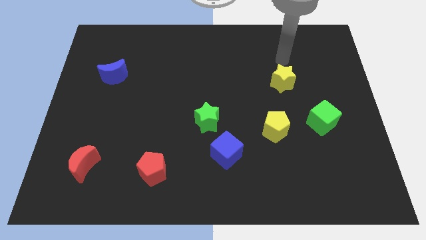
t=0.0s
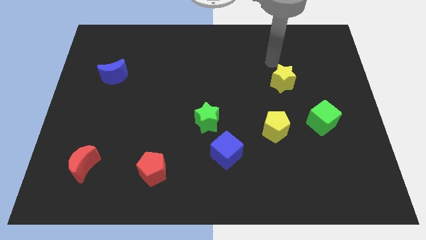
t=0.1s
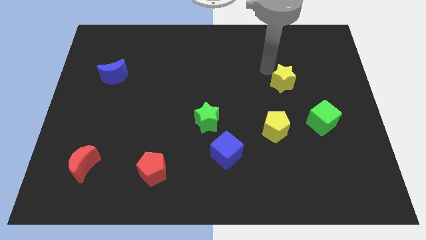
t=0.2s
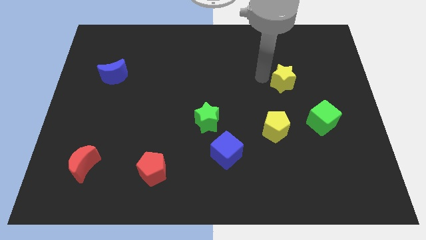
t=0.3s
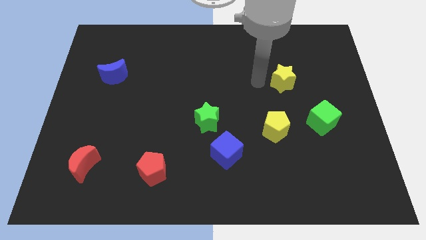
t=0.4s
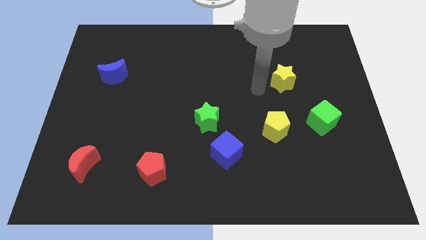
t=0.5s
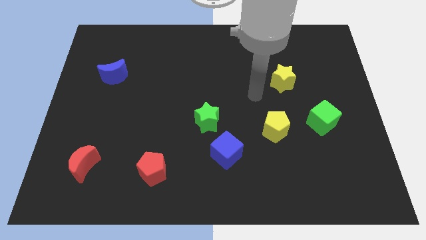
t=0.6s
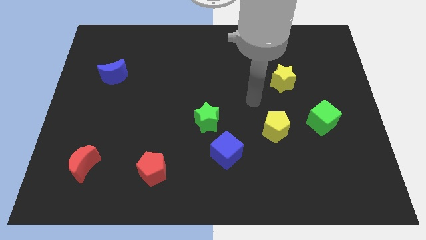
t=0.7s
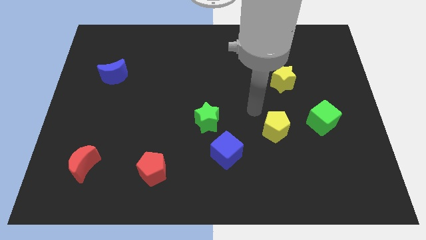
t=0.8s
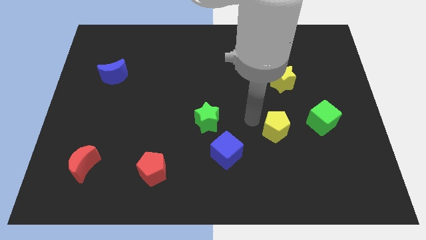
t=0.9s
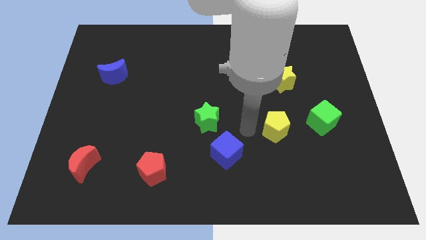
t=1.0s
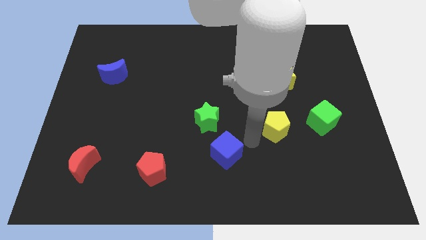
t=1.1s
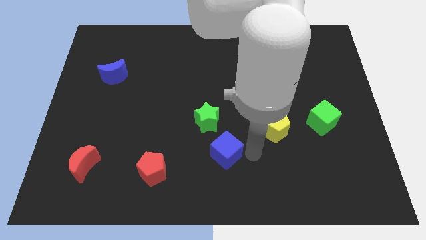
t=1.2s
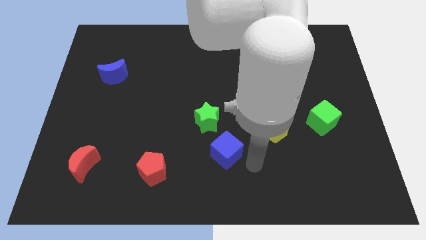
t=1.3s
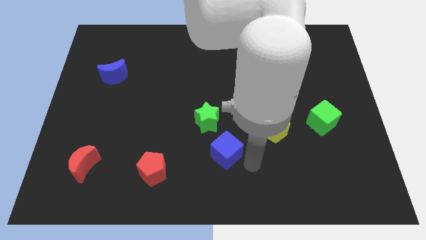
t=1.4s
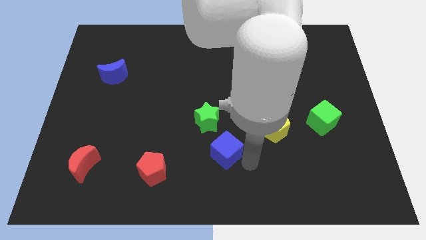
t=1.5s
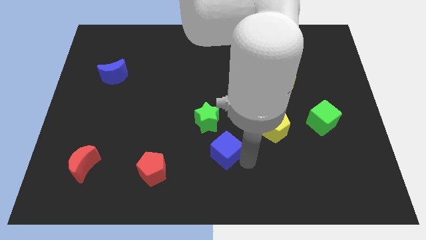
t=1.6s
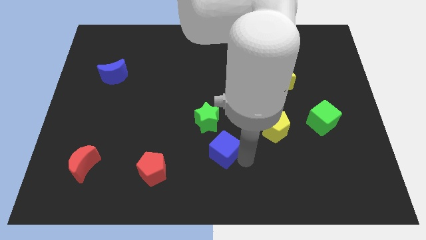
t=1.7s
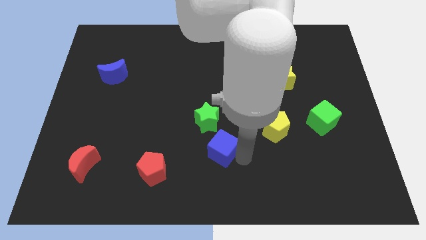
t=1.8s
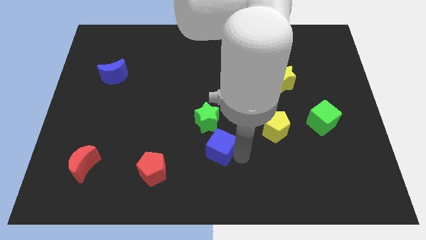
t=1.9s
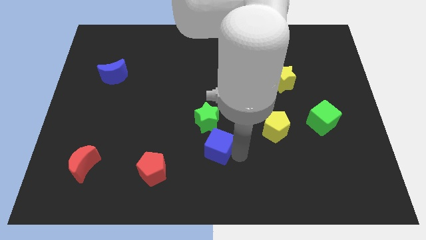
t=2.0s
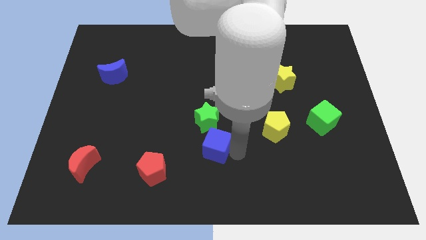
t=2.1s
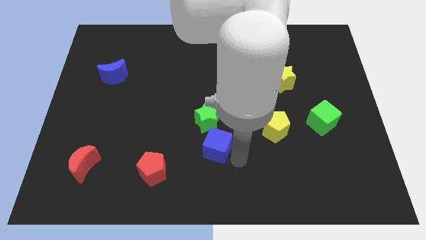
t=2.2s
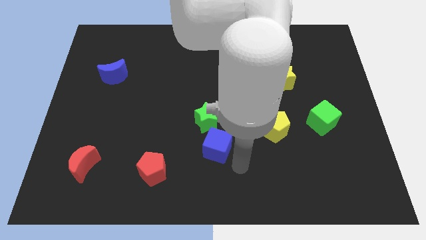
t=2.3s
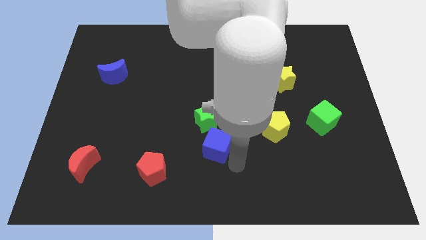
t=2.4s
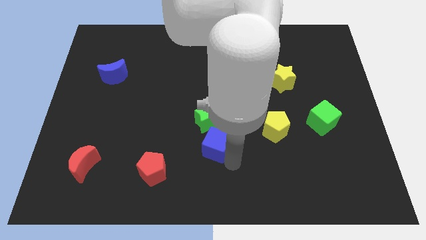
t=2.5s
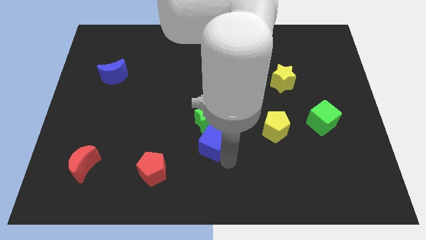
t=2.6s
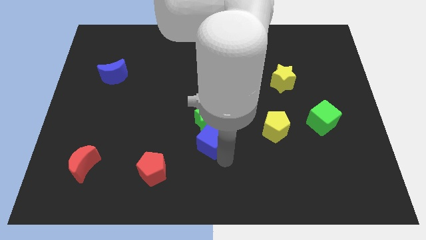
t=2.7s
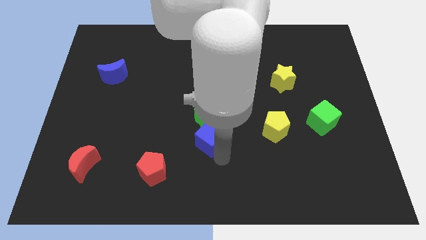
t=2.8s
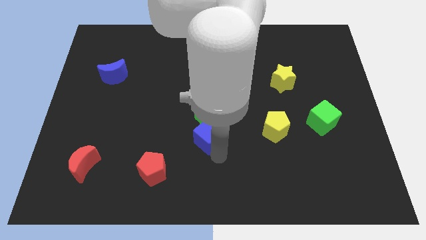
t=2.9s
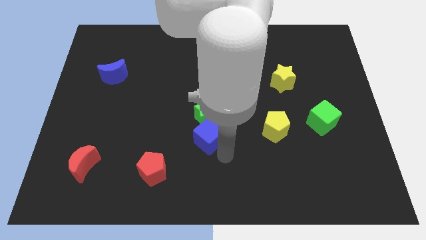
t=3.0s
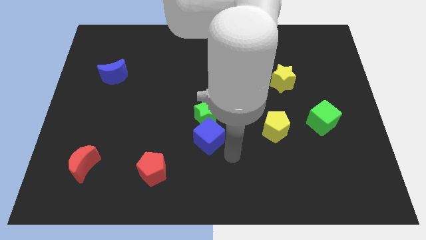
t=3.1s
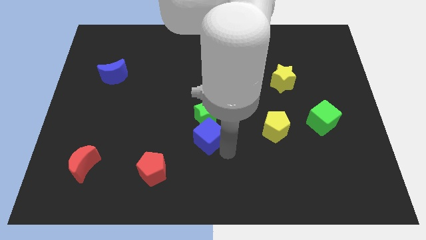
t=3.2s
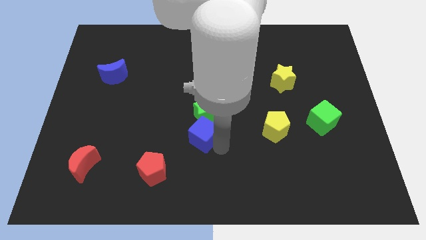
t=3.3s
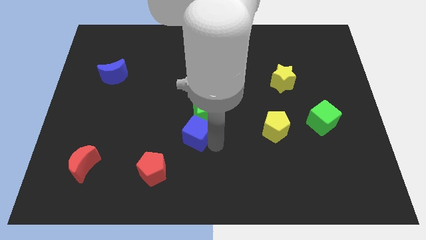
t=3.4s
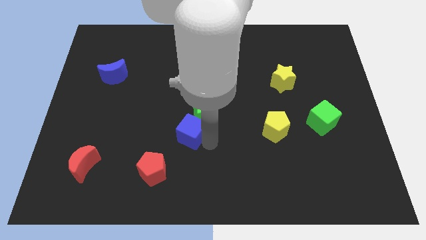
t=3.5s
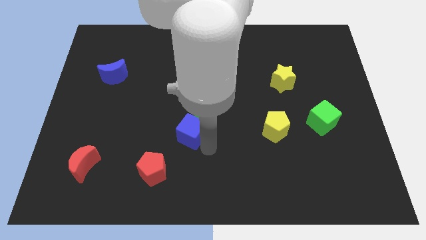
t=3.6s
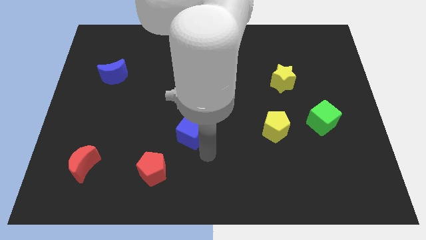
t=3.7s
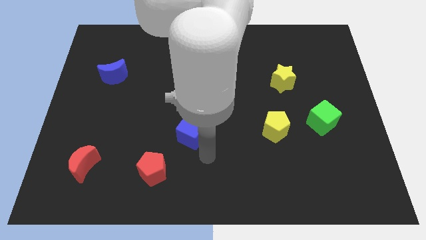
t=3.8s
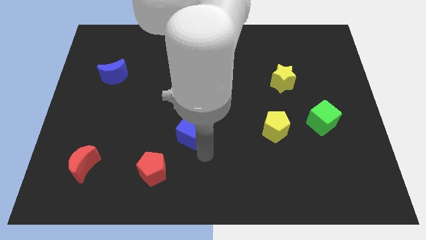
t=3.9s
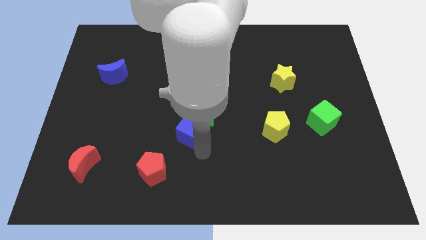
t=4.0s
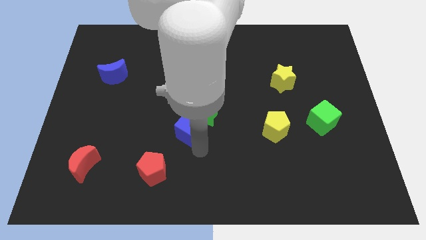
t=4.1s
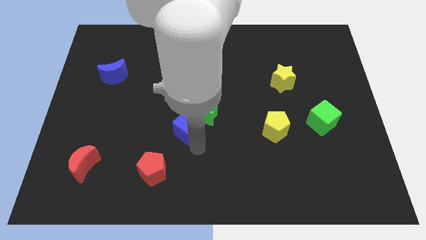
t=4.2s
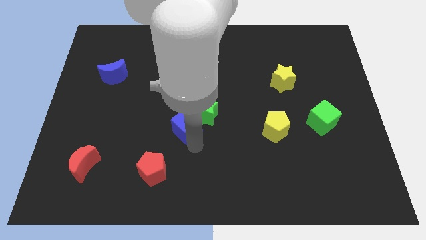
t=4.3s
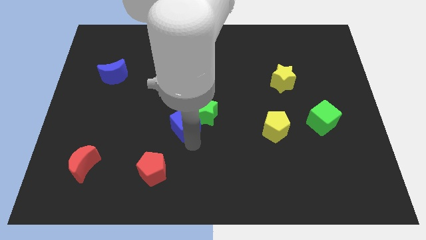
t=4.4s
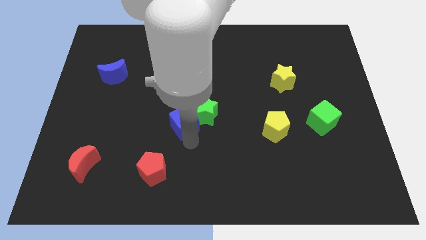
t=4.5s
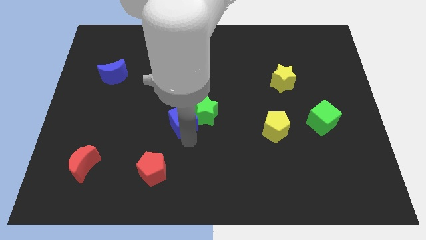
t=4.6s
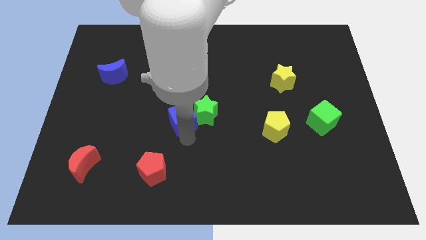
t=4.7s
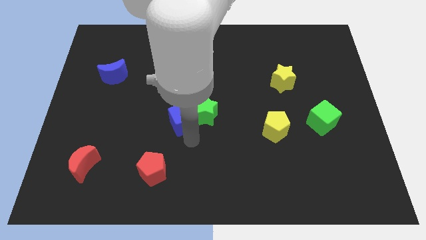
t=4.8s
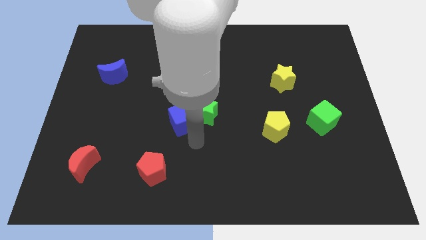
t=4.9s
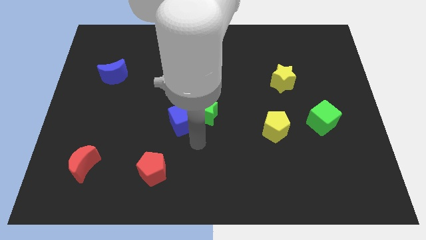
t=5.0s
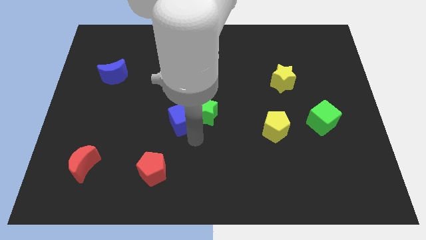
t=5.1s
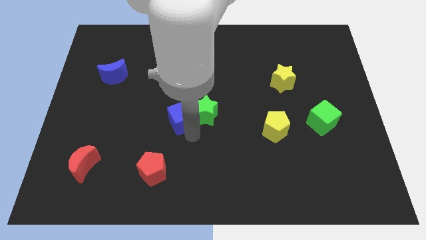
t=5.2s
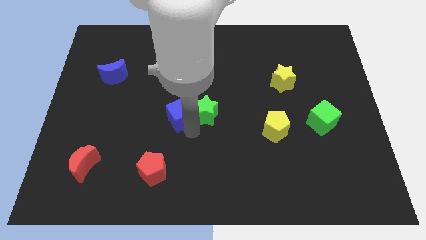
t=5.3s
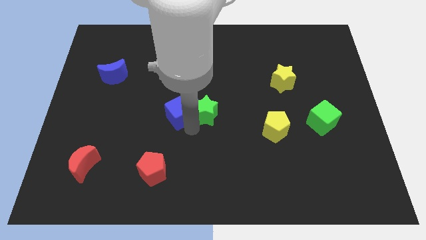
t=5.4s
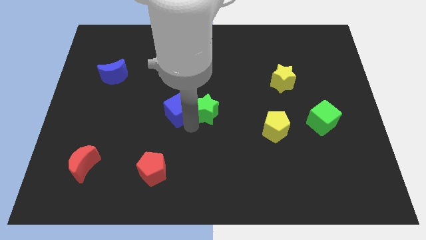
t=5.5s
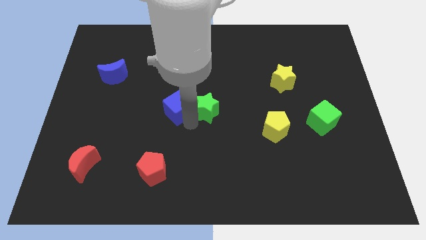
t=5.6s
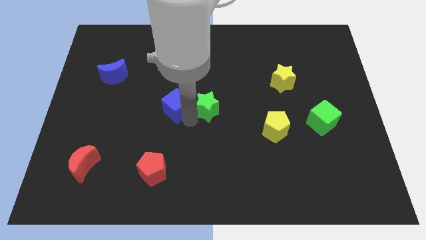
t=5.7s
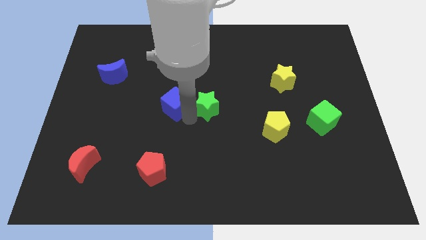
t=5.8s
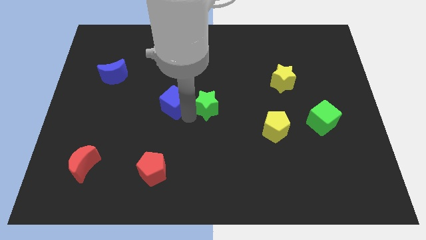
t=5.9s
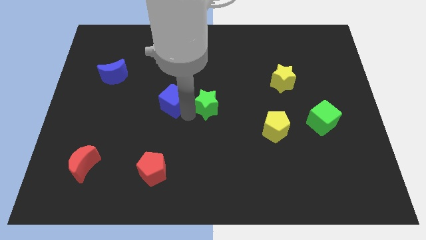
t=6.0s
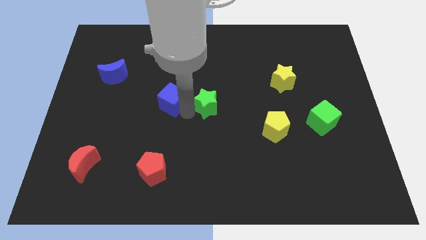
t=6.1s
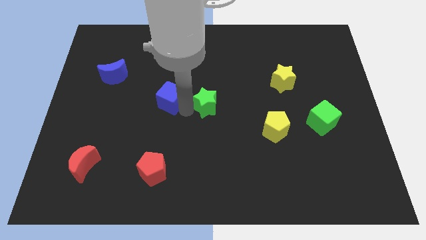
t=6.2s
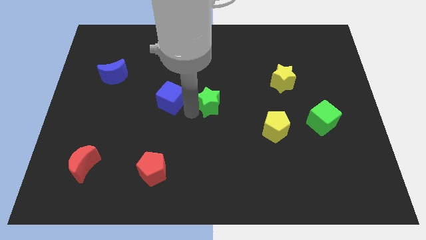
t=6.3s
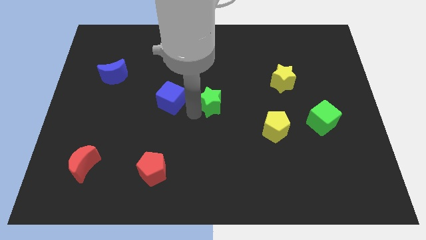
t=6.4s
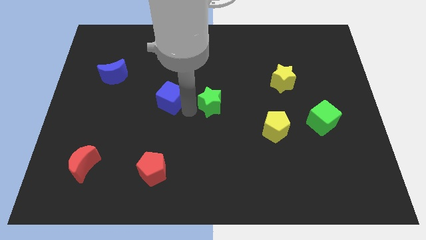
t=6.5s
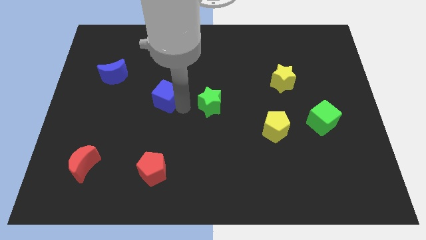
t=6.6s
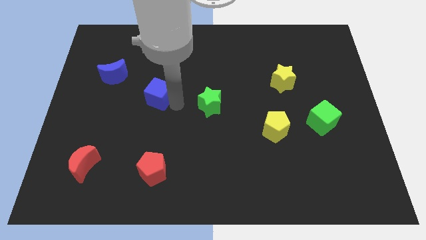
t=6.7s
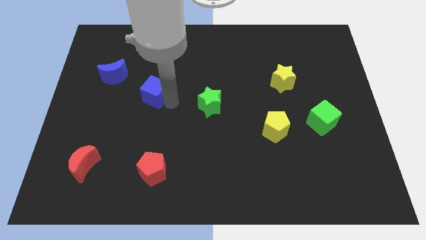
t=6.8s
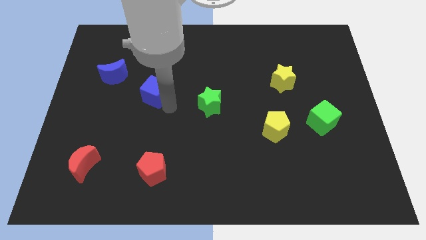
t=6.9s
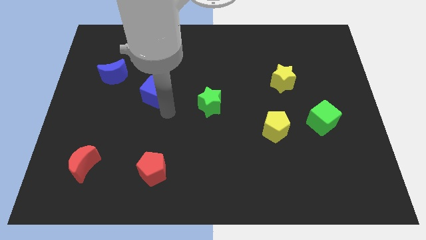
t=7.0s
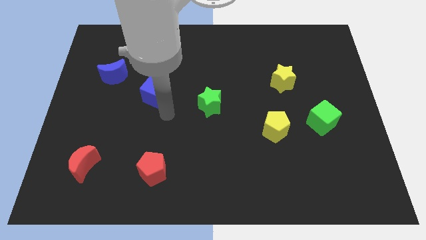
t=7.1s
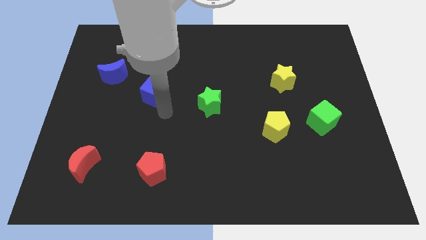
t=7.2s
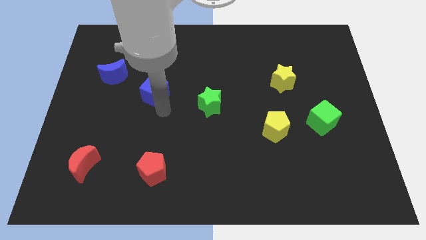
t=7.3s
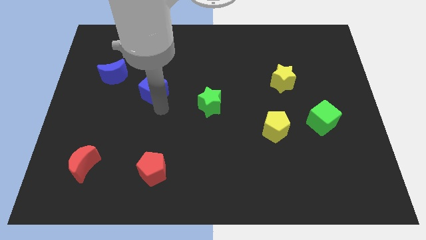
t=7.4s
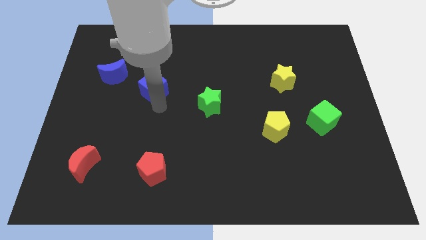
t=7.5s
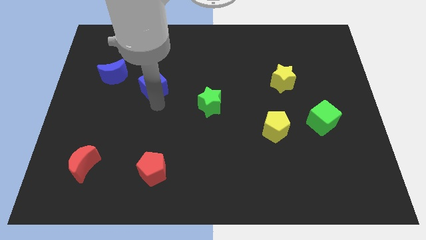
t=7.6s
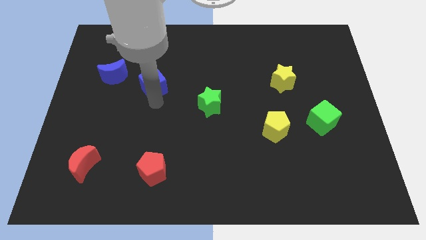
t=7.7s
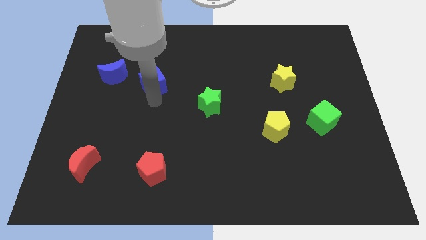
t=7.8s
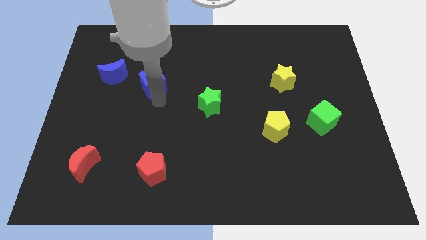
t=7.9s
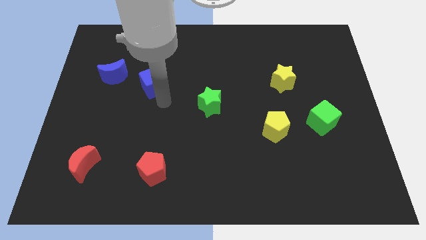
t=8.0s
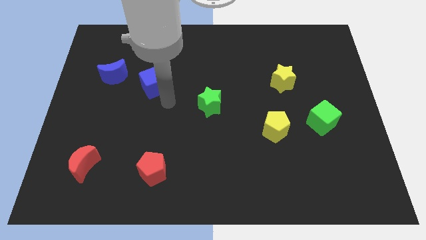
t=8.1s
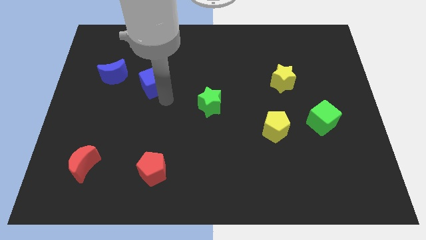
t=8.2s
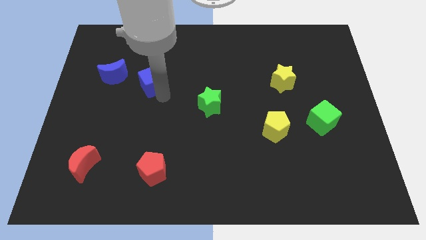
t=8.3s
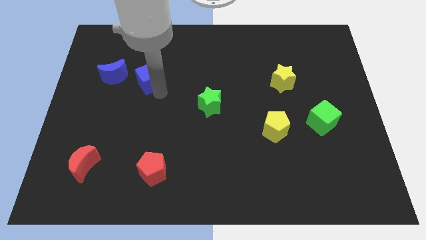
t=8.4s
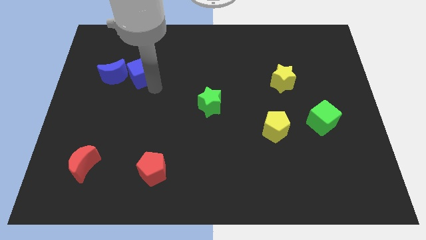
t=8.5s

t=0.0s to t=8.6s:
put the blue cube to the top right side of the blue moon
